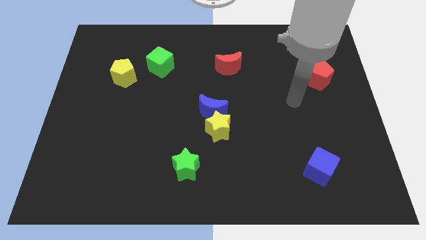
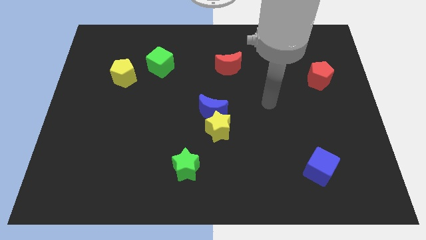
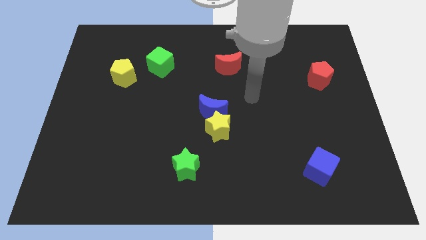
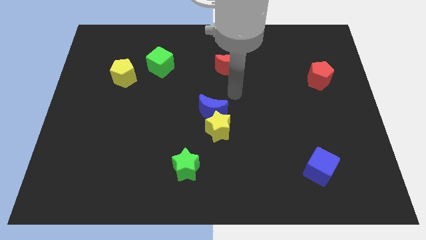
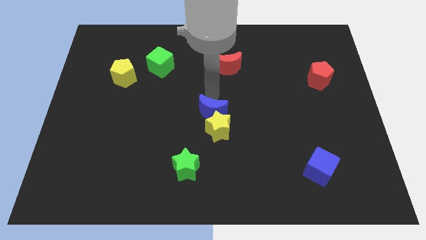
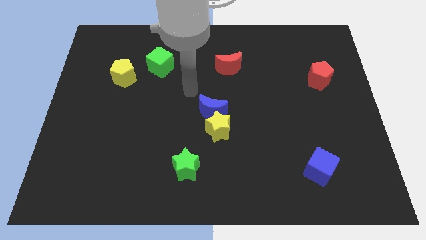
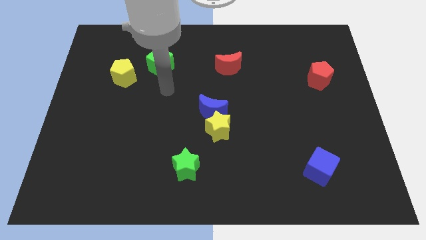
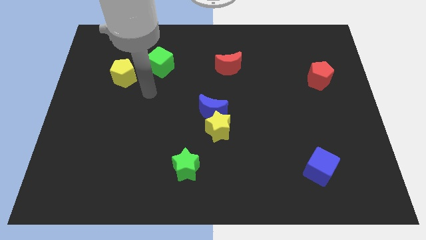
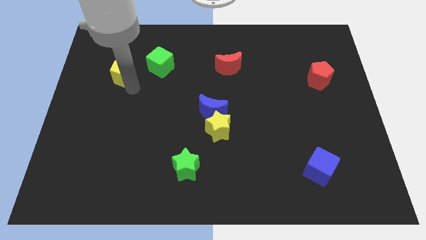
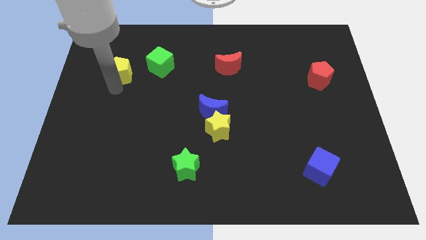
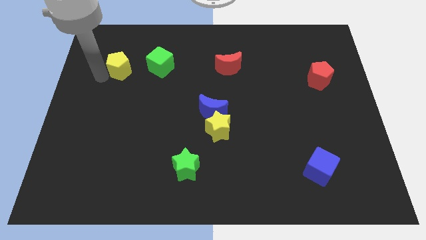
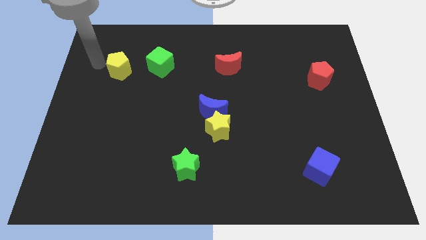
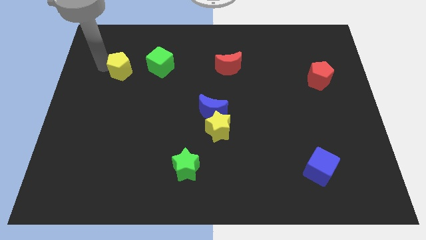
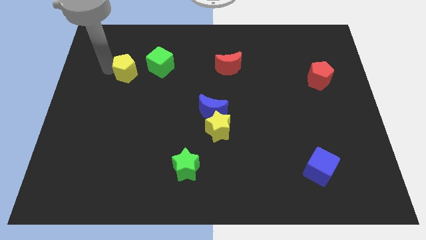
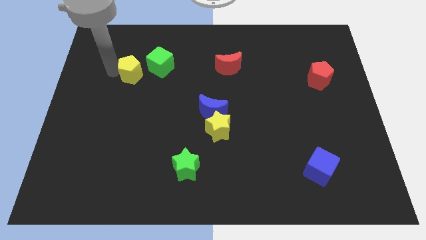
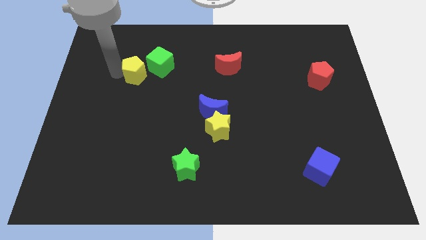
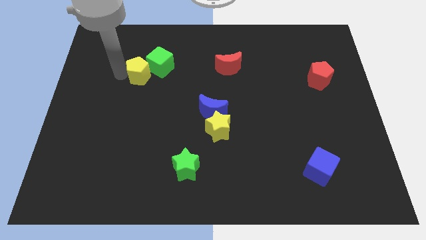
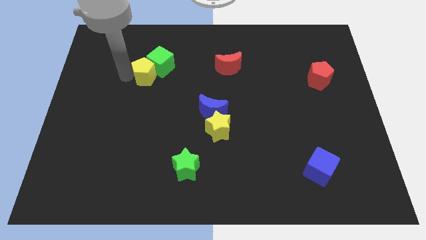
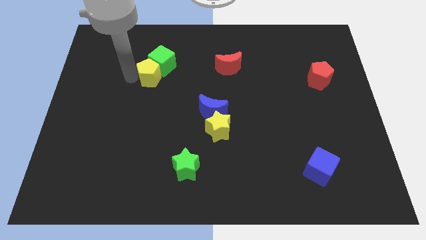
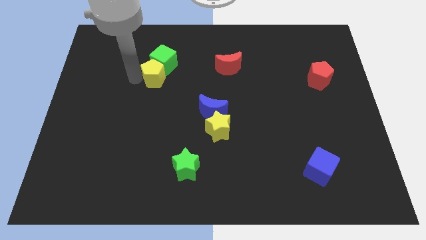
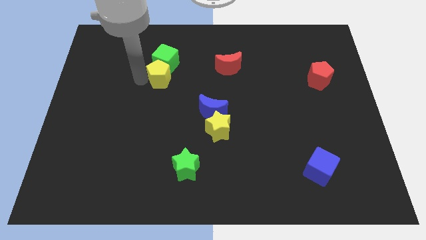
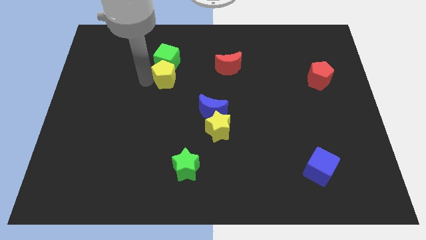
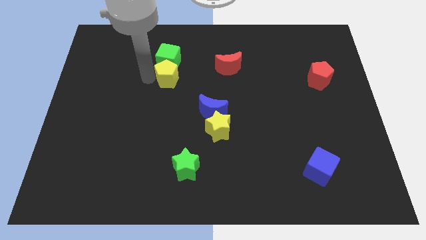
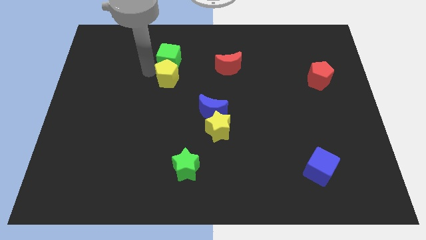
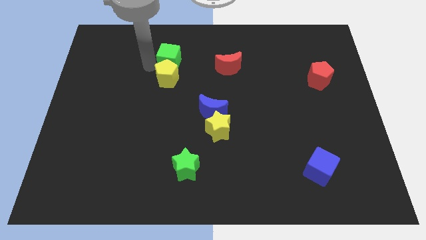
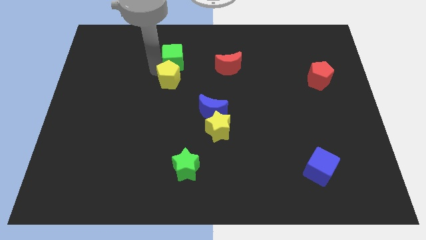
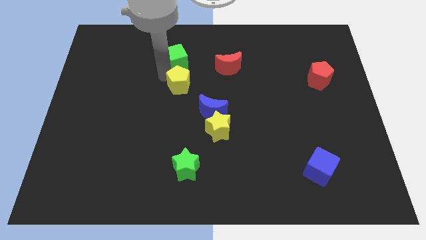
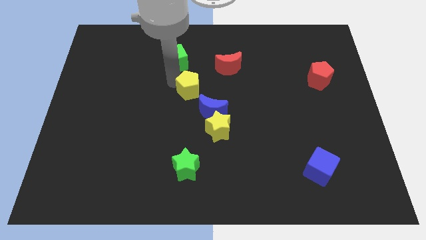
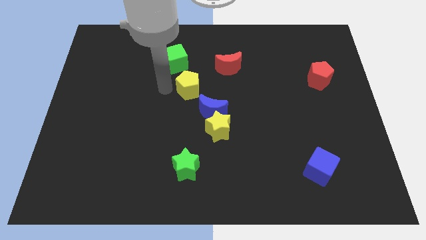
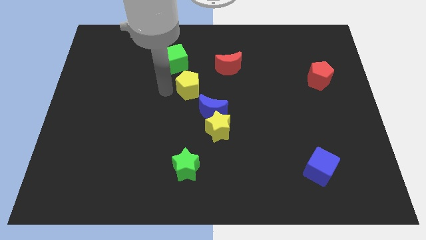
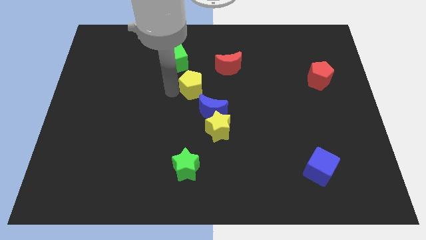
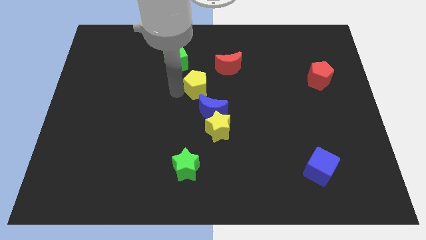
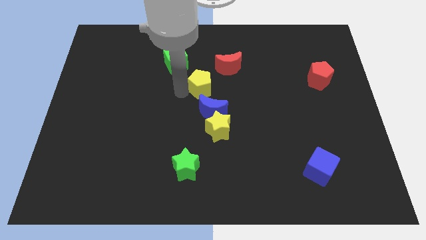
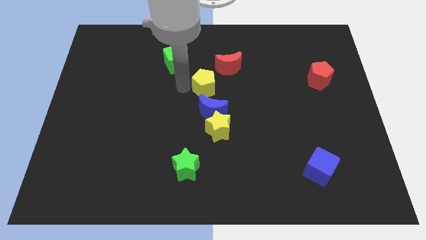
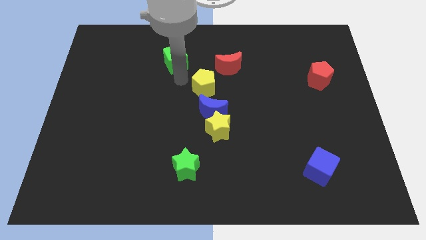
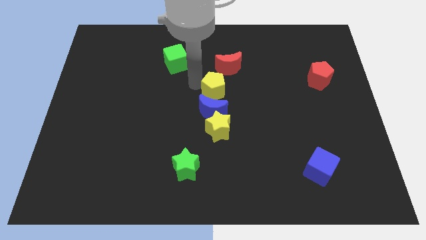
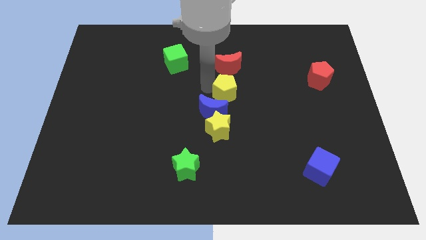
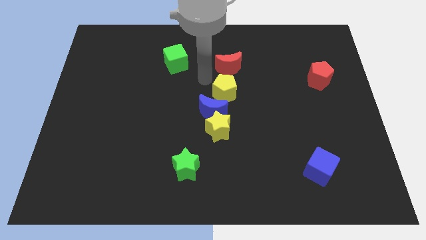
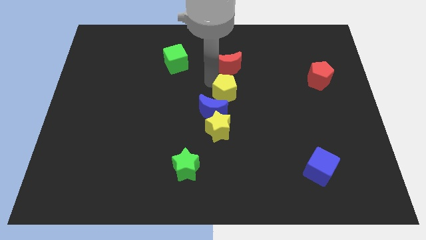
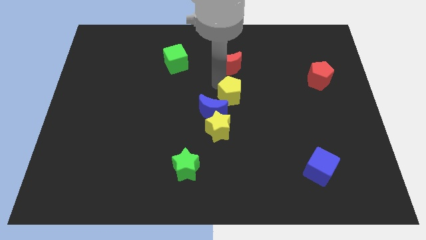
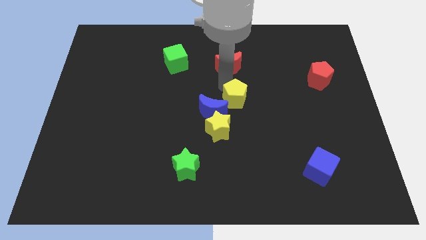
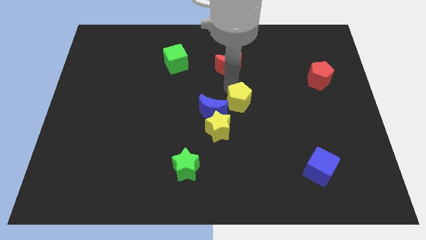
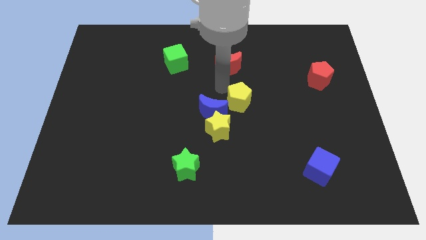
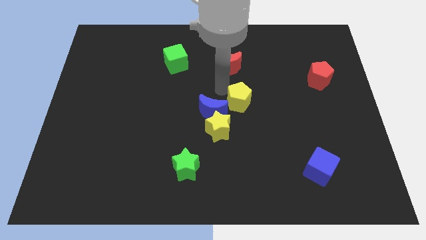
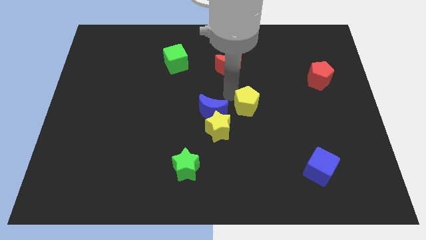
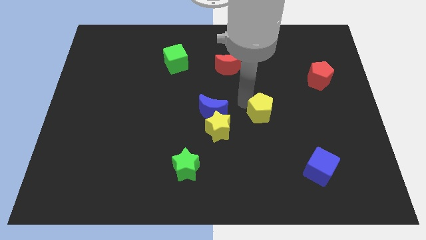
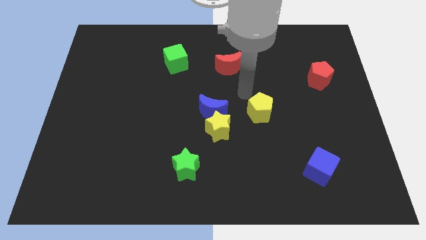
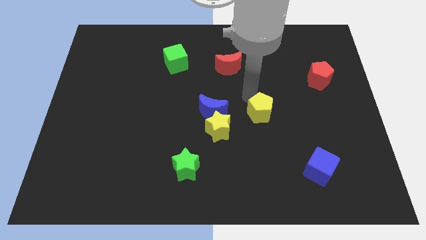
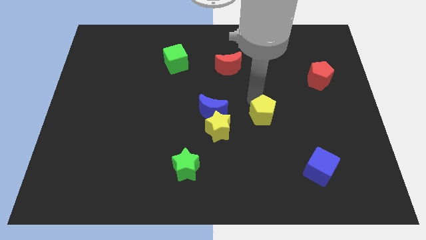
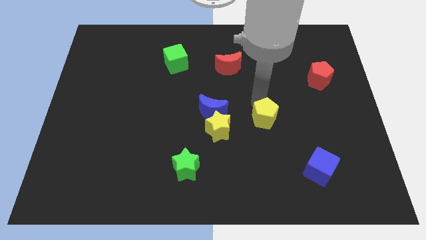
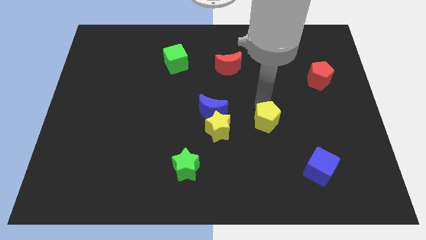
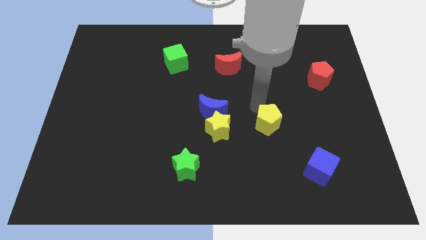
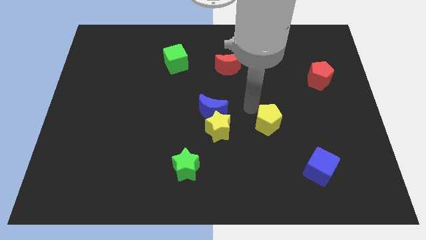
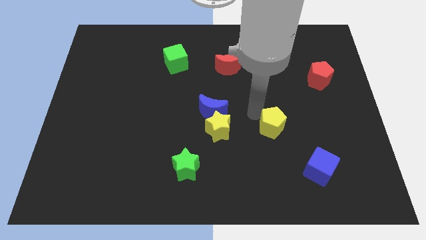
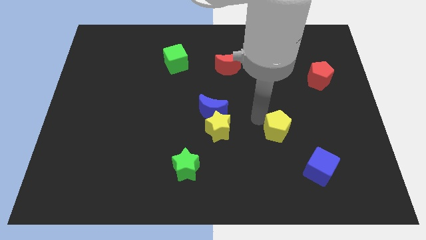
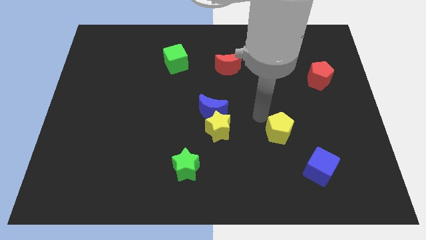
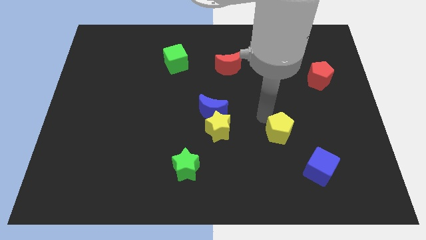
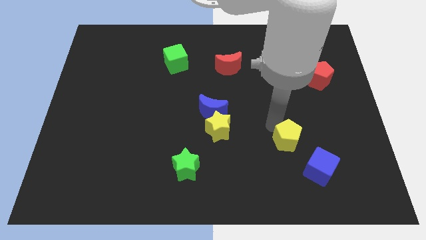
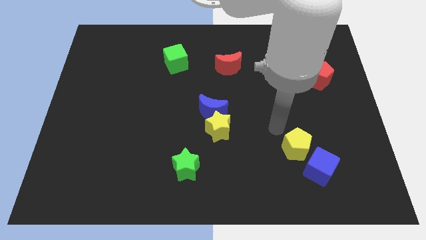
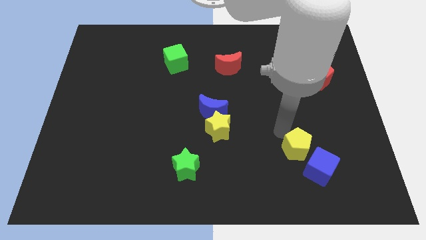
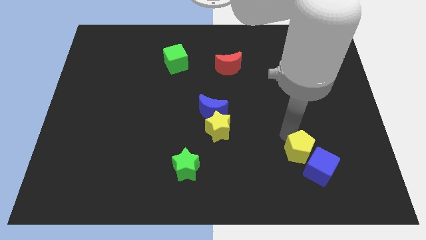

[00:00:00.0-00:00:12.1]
move the yellow pentagon to the blue cube

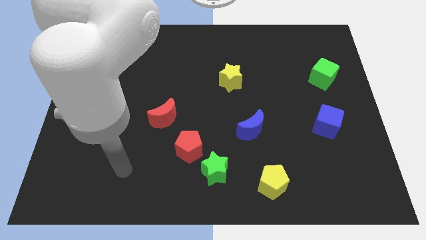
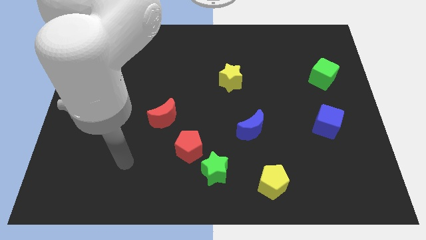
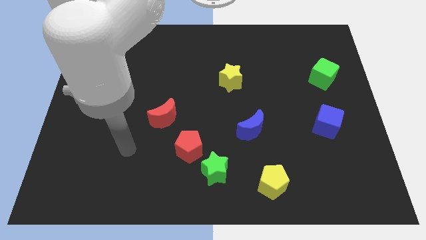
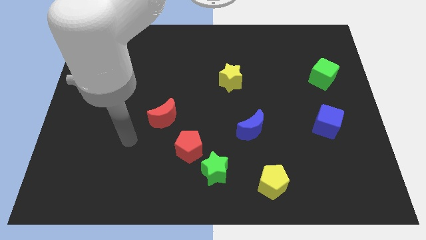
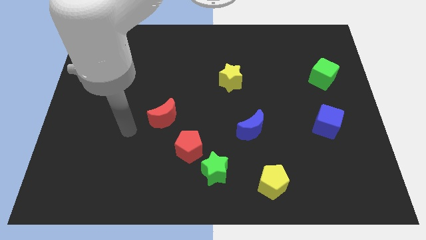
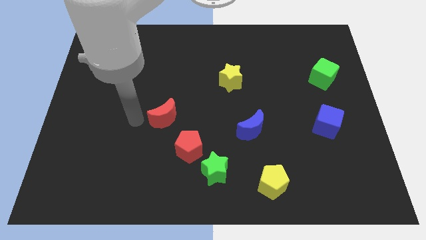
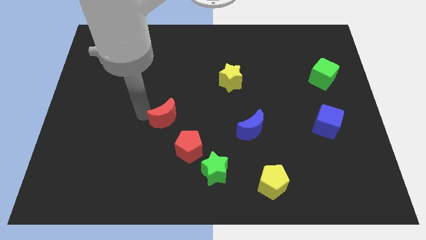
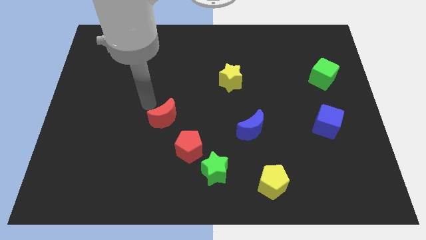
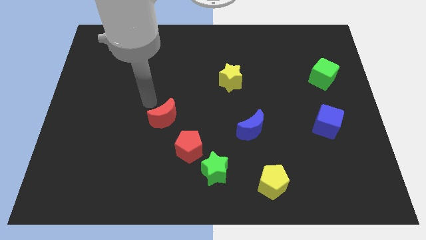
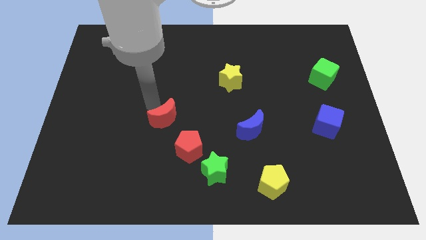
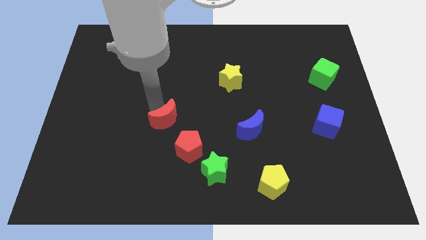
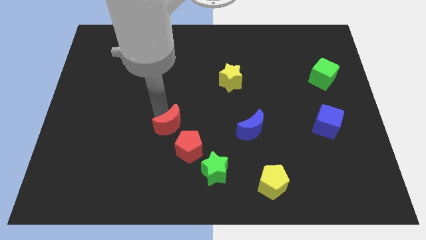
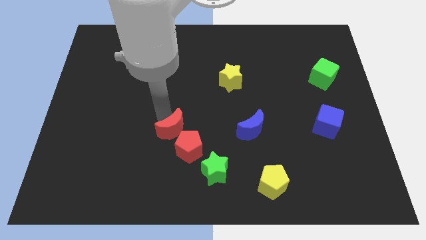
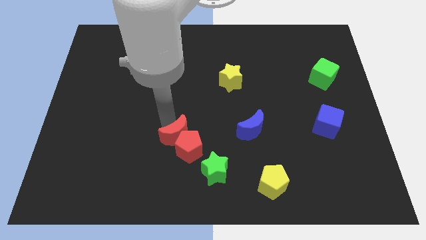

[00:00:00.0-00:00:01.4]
put the red moon to the red pentagon
